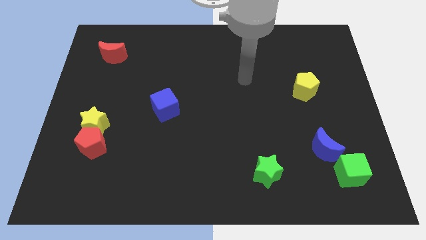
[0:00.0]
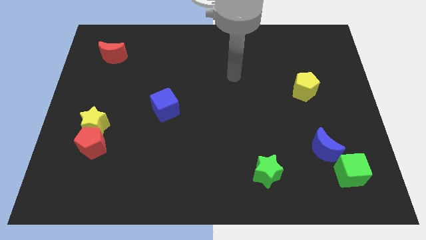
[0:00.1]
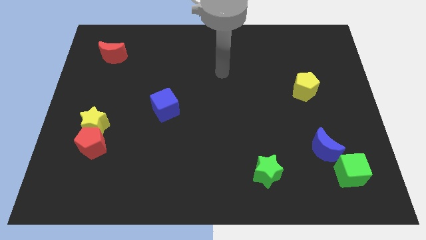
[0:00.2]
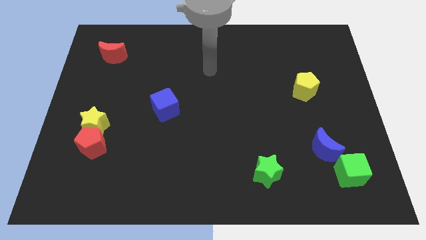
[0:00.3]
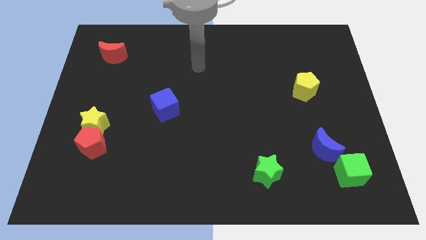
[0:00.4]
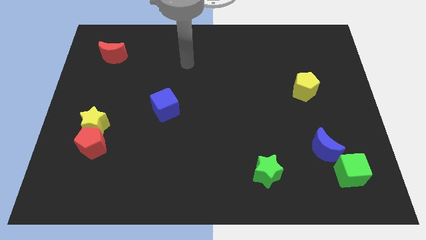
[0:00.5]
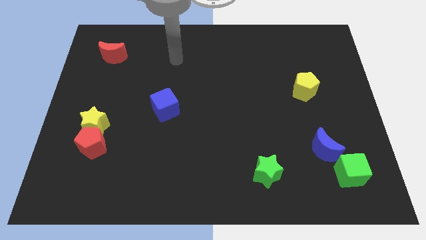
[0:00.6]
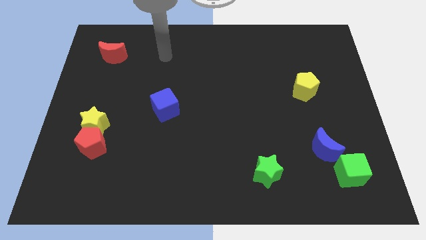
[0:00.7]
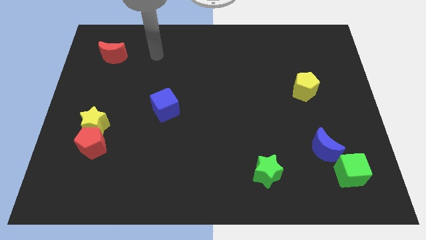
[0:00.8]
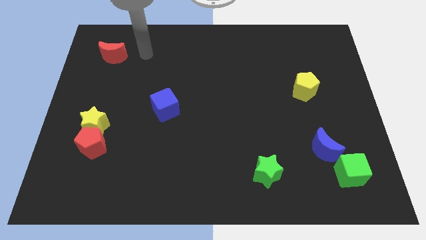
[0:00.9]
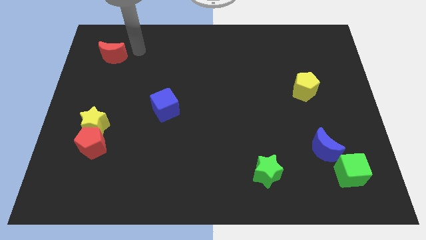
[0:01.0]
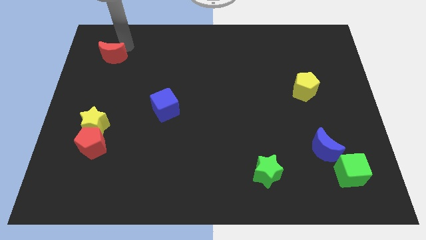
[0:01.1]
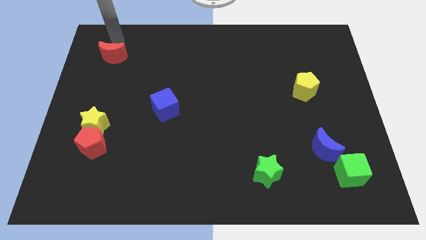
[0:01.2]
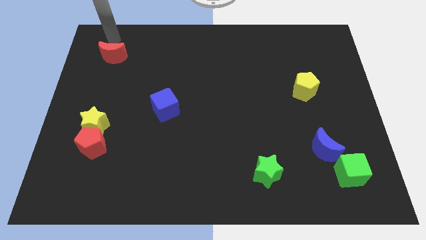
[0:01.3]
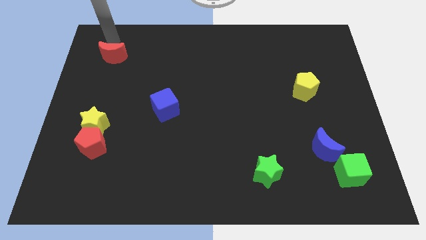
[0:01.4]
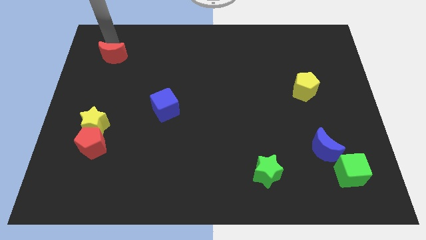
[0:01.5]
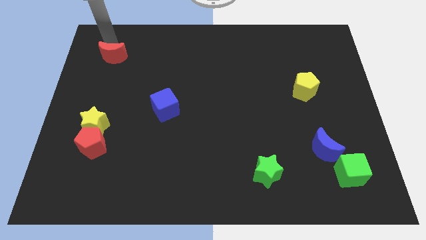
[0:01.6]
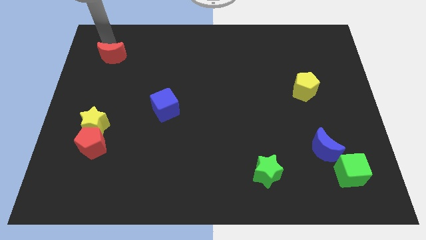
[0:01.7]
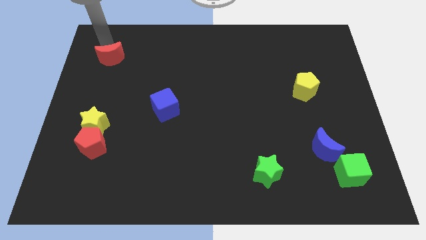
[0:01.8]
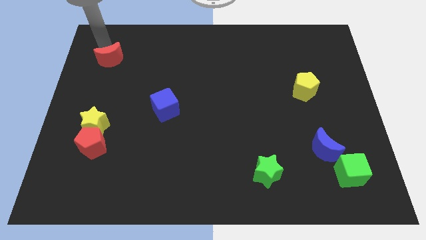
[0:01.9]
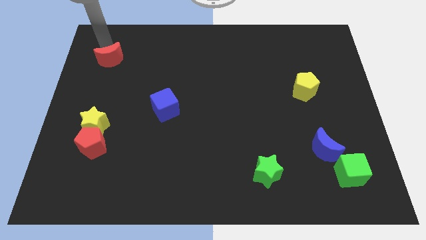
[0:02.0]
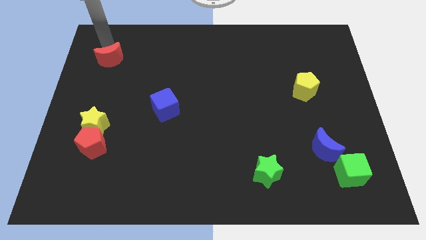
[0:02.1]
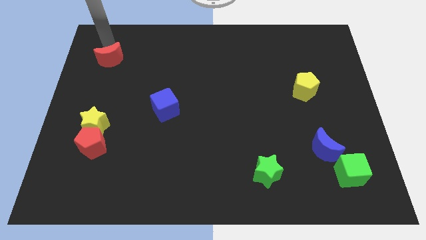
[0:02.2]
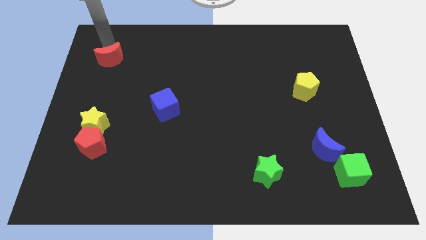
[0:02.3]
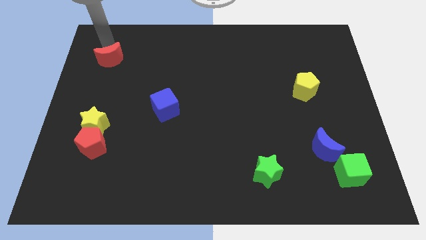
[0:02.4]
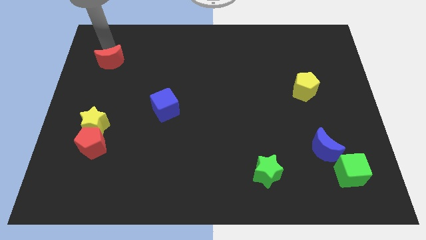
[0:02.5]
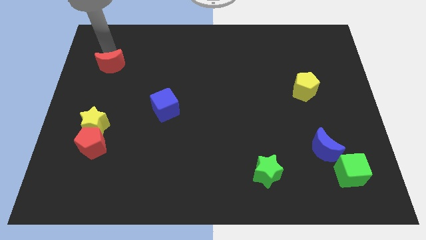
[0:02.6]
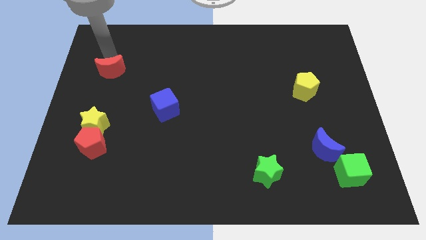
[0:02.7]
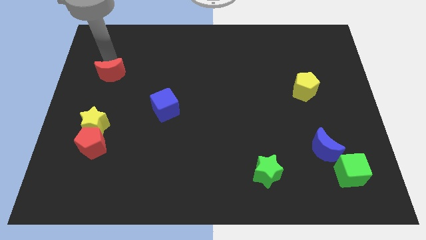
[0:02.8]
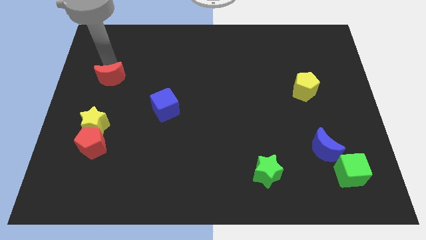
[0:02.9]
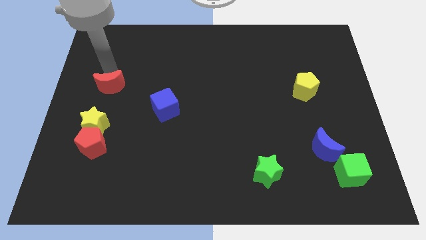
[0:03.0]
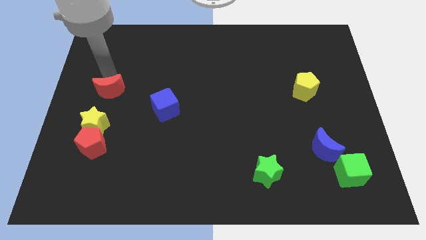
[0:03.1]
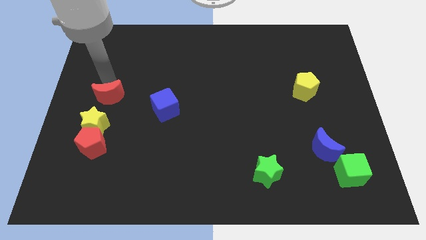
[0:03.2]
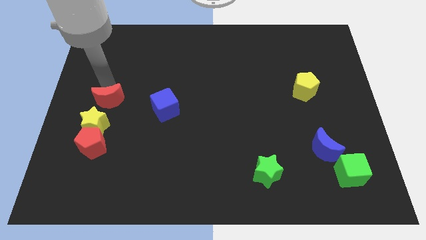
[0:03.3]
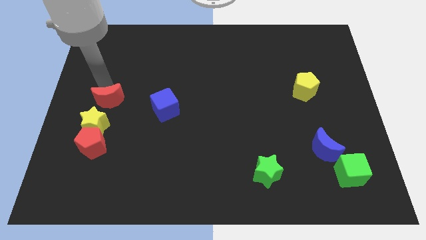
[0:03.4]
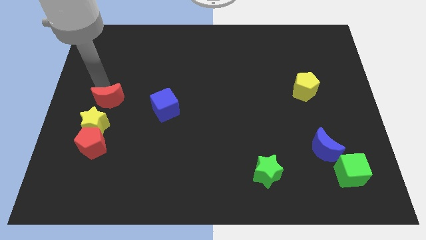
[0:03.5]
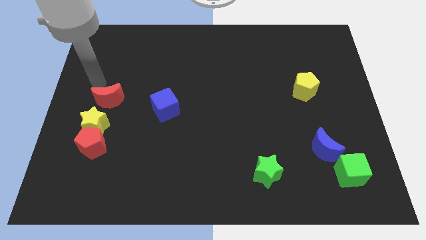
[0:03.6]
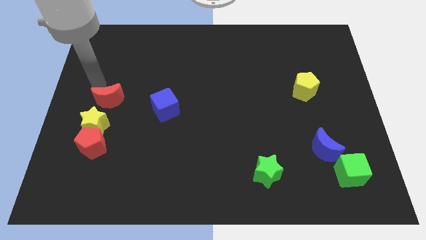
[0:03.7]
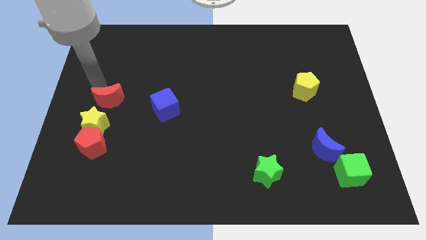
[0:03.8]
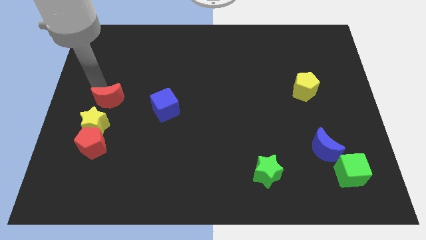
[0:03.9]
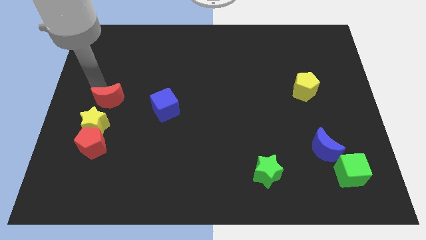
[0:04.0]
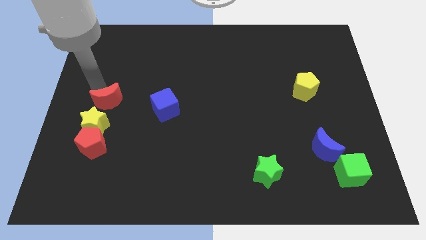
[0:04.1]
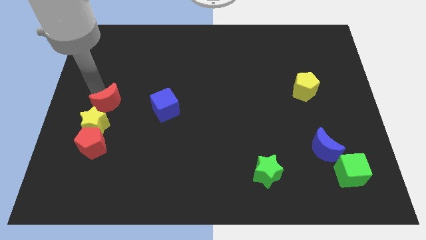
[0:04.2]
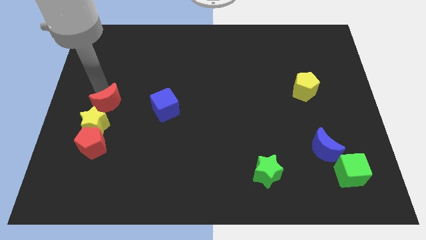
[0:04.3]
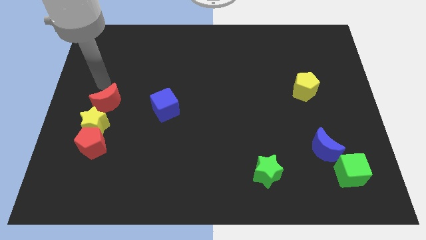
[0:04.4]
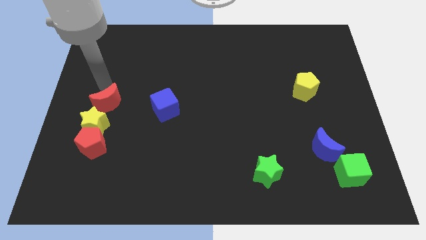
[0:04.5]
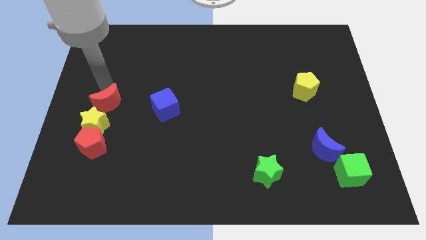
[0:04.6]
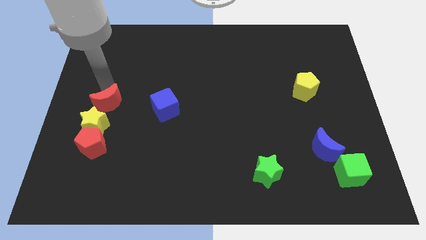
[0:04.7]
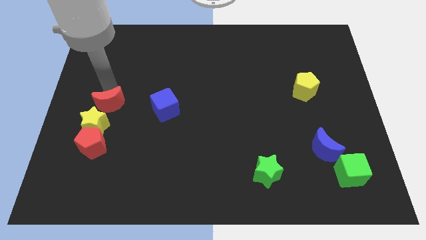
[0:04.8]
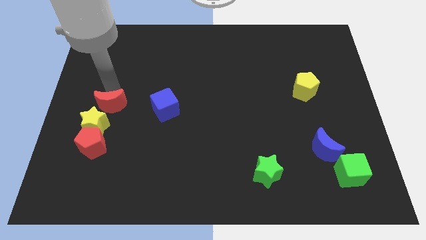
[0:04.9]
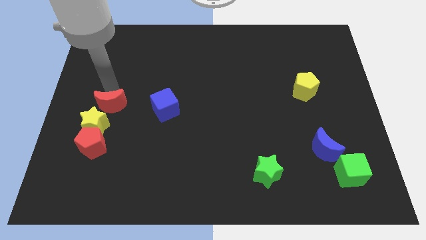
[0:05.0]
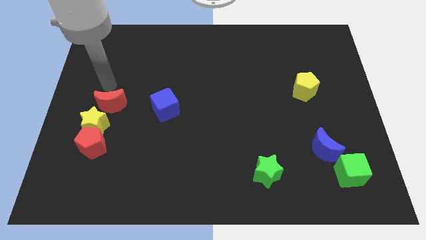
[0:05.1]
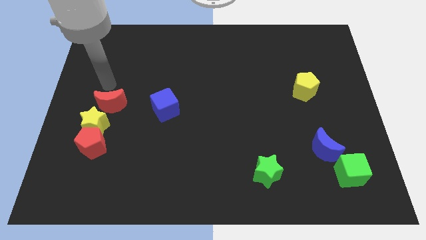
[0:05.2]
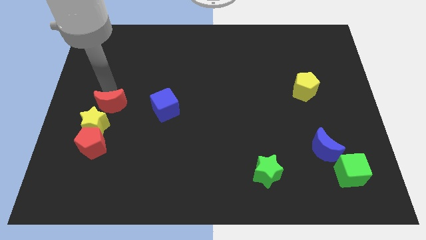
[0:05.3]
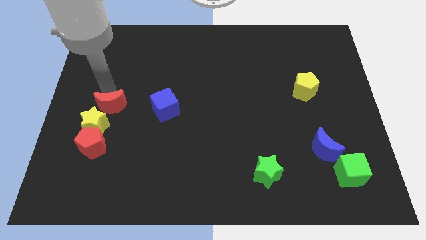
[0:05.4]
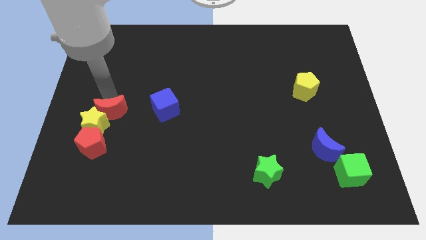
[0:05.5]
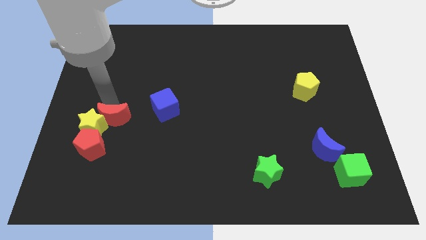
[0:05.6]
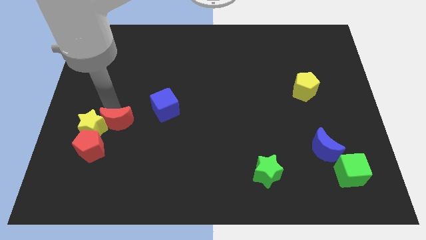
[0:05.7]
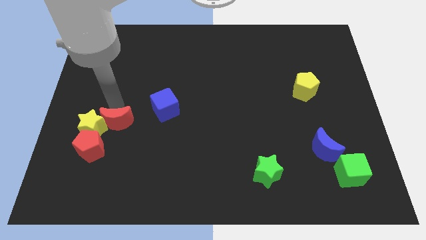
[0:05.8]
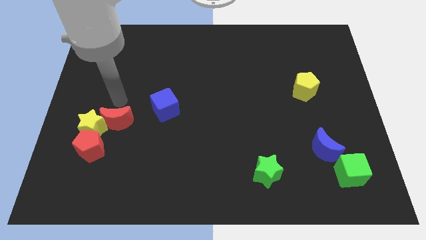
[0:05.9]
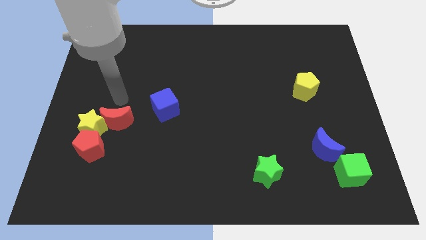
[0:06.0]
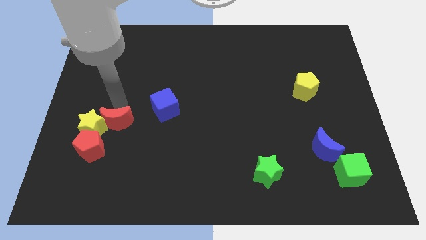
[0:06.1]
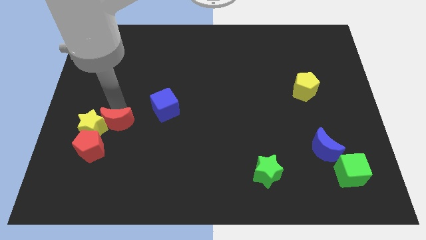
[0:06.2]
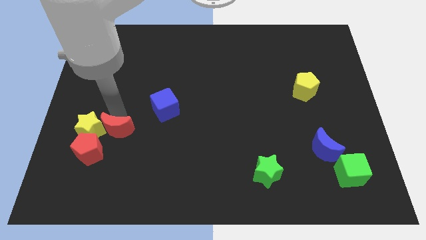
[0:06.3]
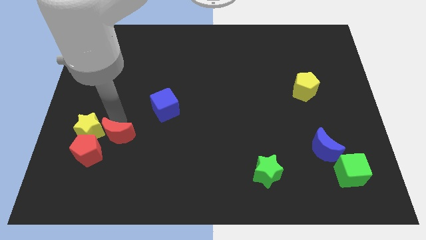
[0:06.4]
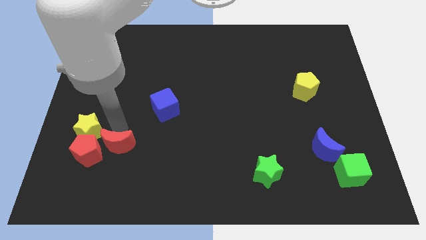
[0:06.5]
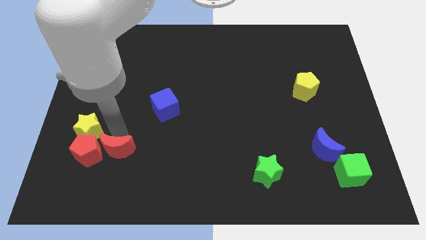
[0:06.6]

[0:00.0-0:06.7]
move the red moon diagonally down and to the right of the red pentagon

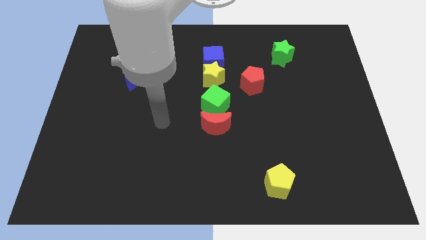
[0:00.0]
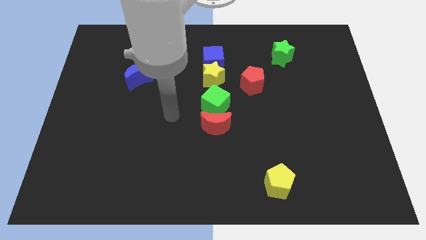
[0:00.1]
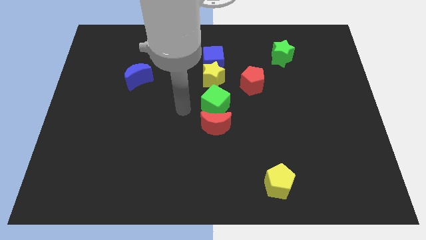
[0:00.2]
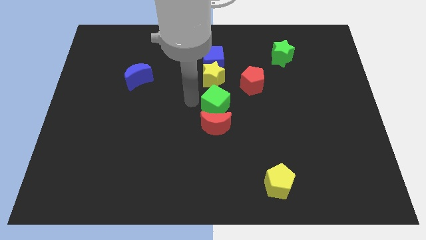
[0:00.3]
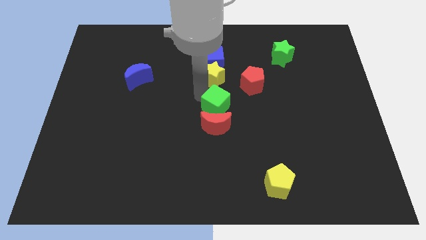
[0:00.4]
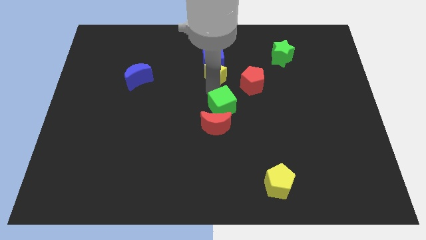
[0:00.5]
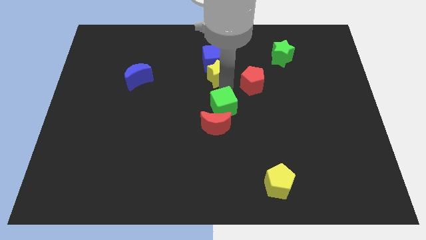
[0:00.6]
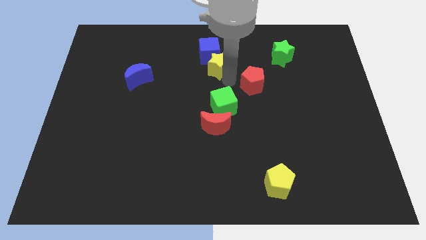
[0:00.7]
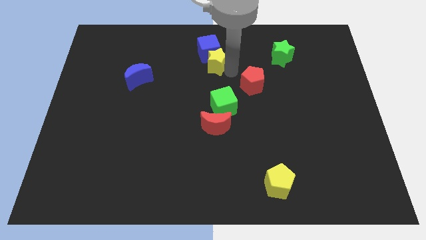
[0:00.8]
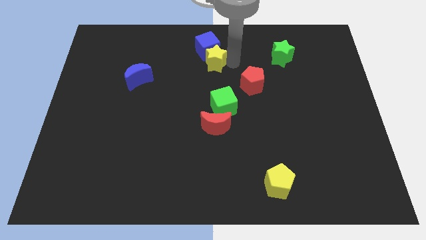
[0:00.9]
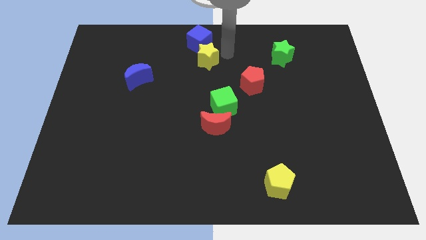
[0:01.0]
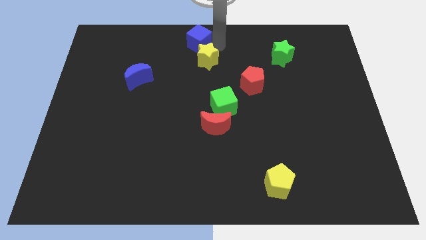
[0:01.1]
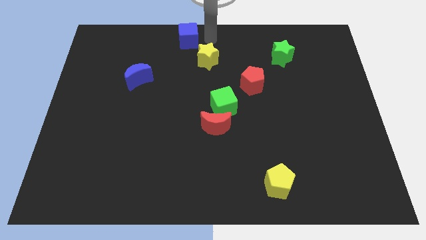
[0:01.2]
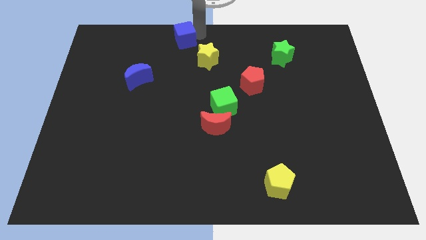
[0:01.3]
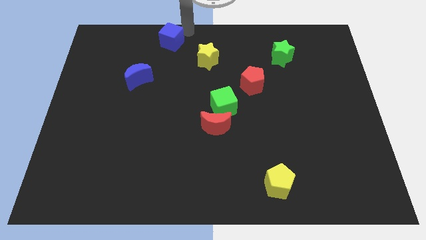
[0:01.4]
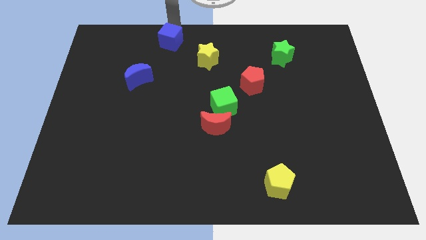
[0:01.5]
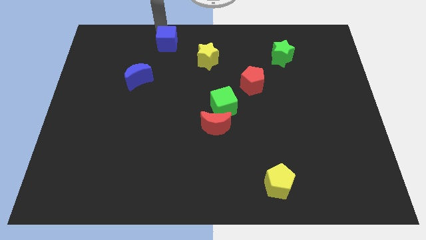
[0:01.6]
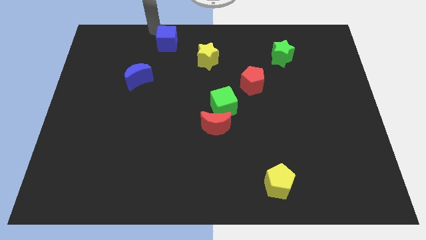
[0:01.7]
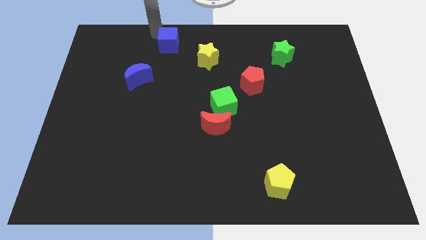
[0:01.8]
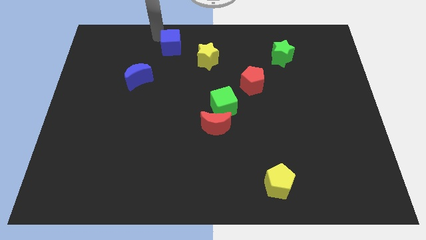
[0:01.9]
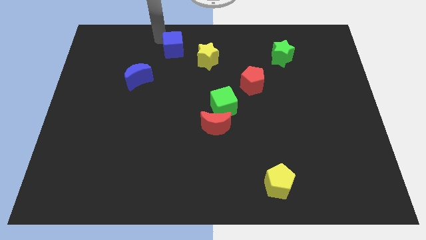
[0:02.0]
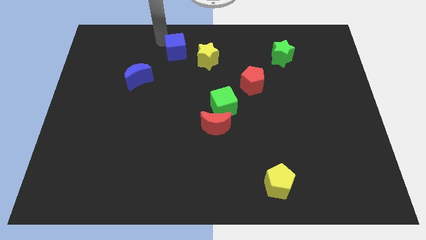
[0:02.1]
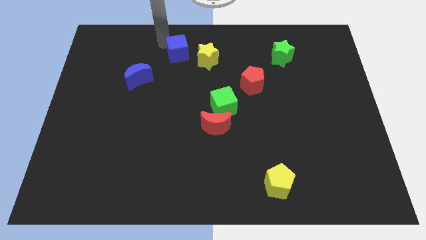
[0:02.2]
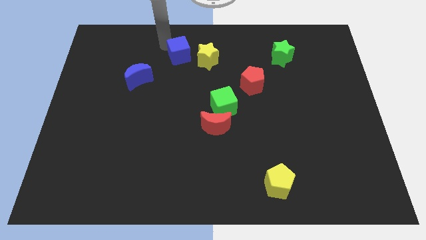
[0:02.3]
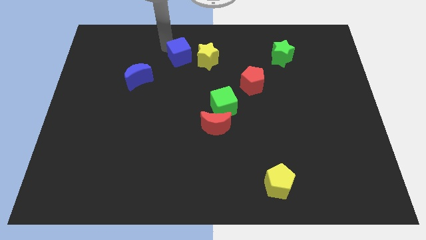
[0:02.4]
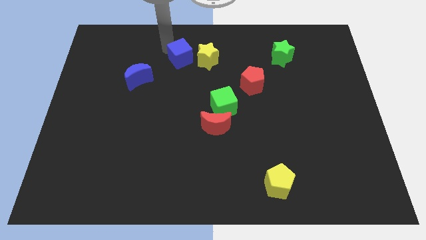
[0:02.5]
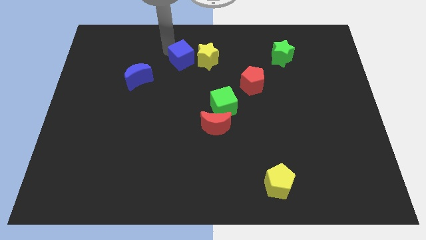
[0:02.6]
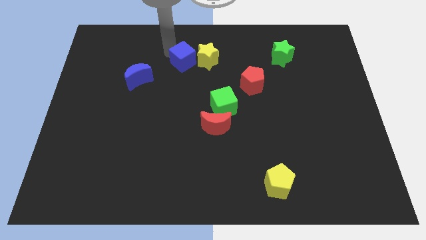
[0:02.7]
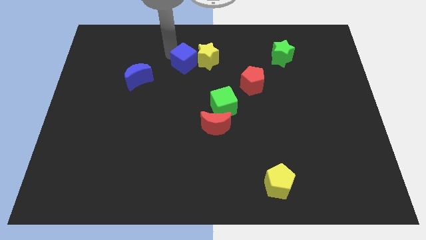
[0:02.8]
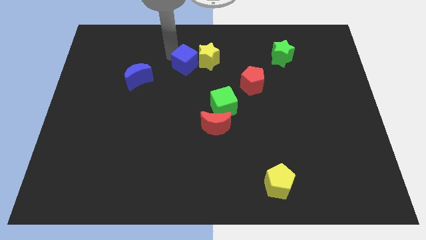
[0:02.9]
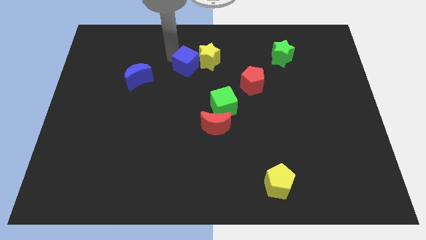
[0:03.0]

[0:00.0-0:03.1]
move the blue cube to the left side of the yellow star
